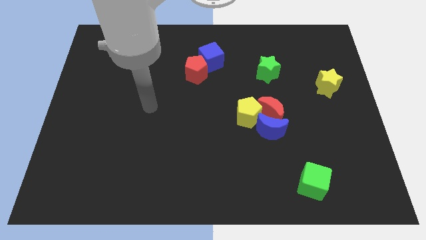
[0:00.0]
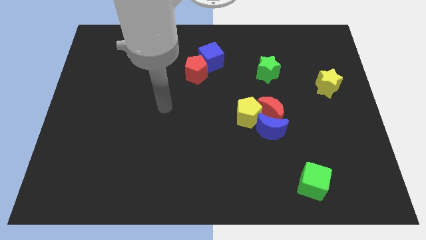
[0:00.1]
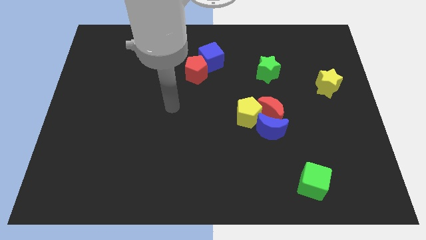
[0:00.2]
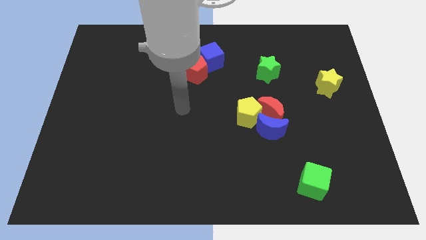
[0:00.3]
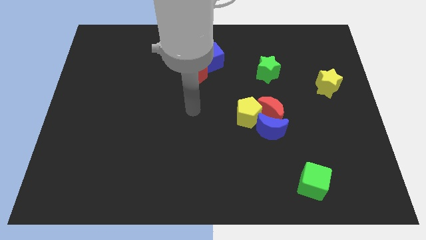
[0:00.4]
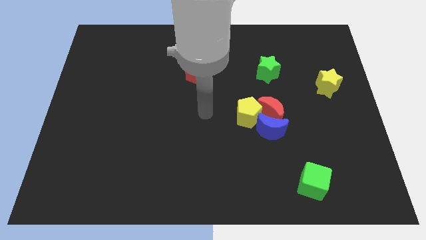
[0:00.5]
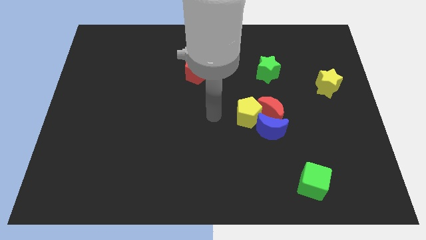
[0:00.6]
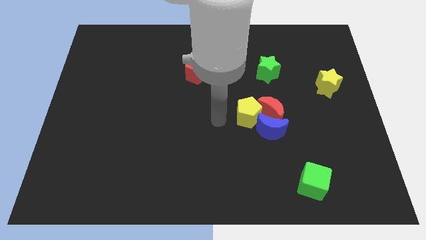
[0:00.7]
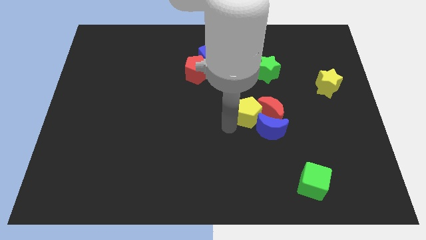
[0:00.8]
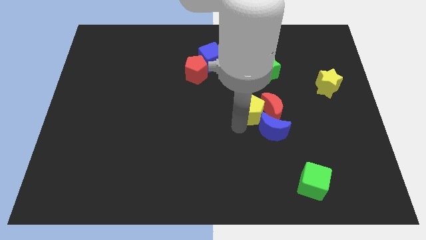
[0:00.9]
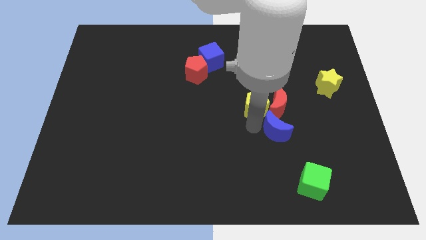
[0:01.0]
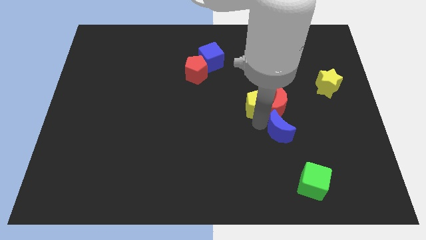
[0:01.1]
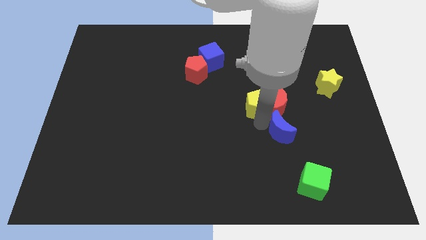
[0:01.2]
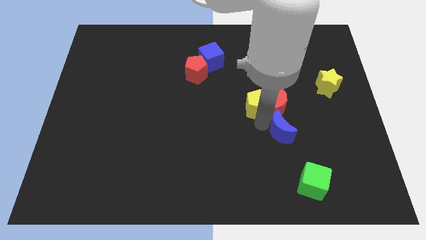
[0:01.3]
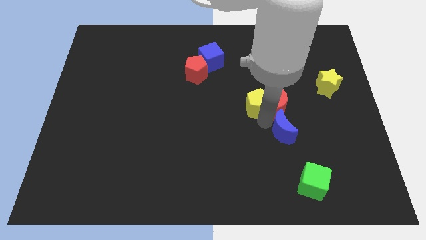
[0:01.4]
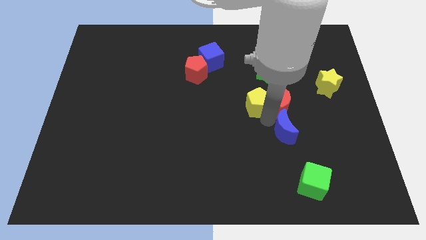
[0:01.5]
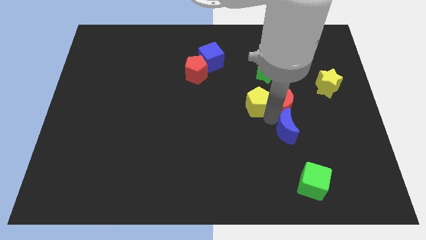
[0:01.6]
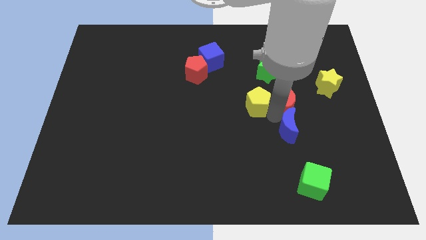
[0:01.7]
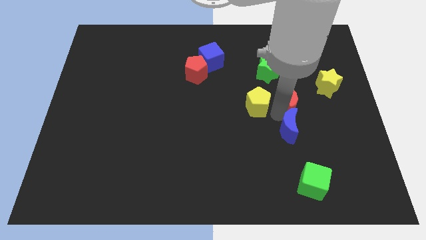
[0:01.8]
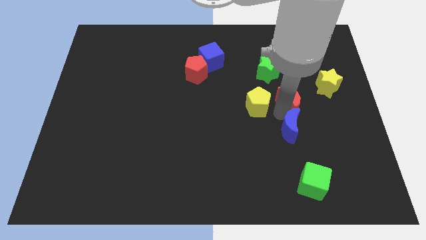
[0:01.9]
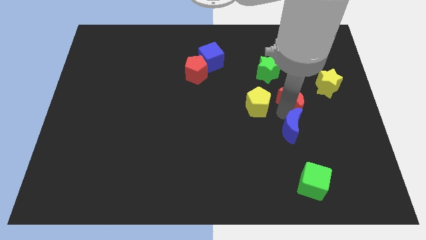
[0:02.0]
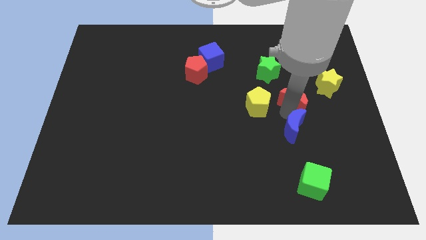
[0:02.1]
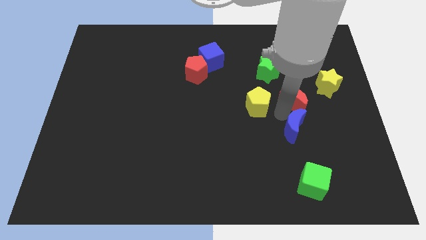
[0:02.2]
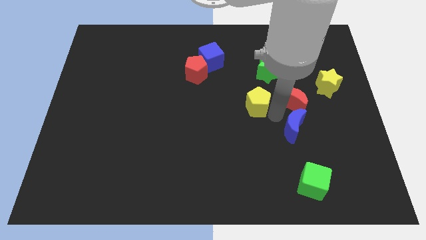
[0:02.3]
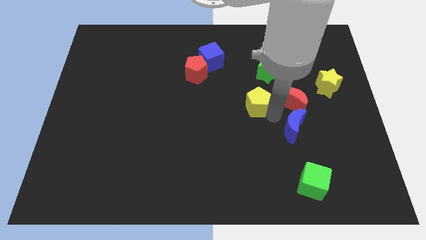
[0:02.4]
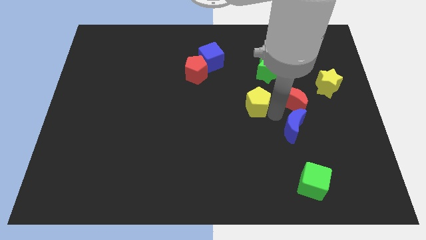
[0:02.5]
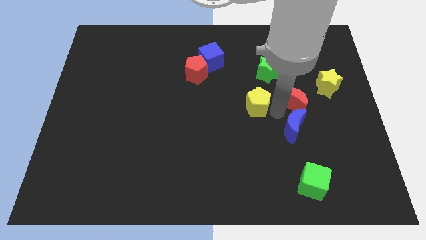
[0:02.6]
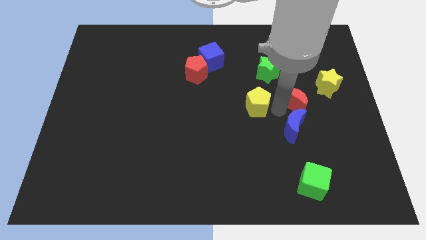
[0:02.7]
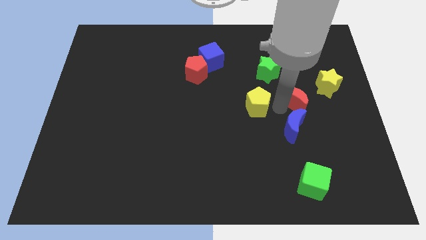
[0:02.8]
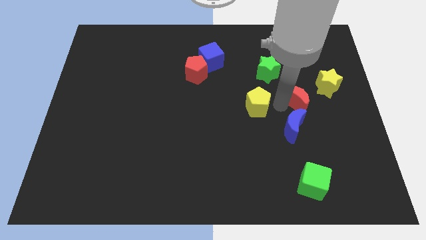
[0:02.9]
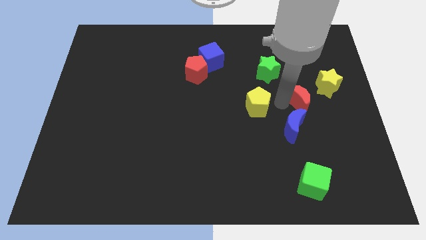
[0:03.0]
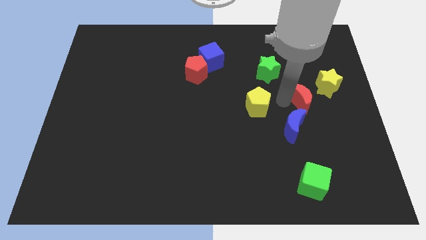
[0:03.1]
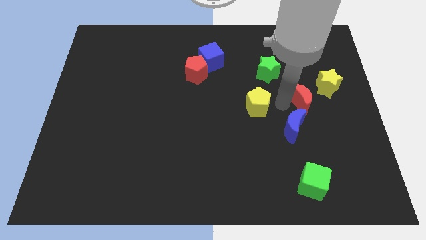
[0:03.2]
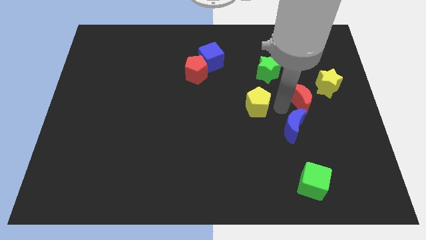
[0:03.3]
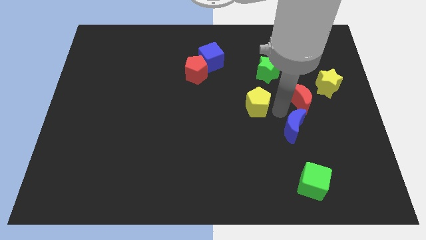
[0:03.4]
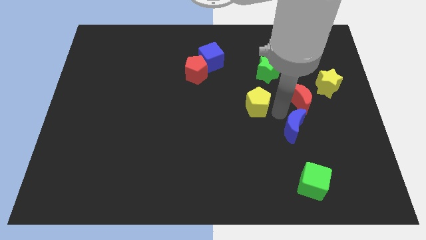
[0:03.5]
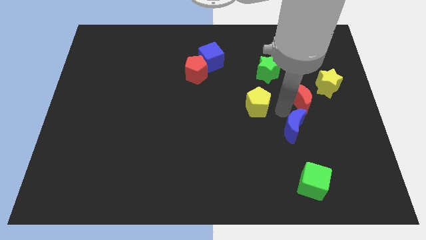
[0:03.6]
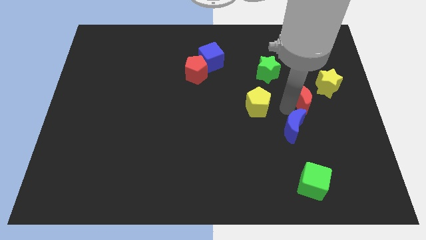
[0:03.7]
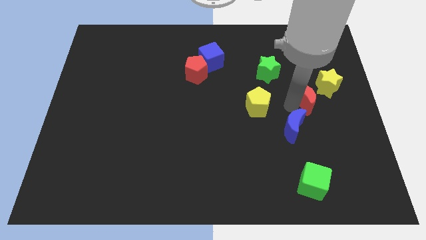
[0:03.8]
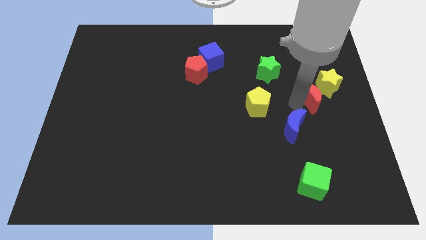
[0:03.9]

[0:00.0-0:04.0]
separate the red moon from the blue moon and yellow pentagon

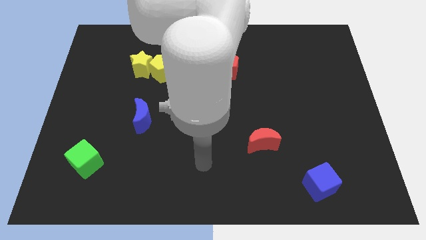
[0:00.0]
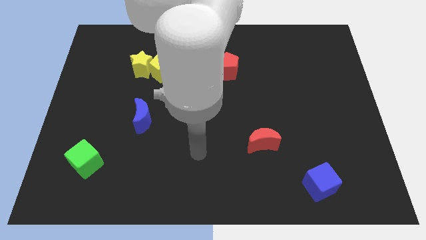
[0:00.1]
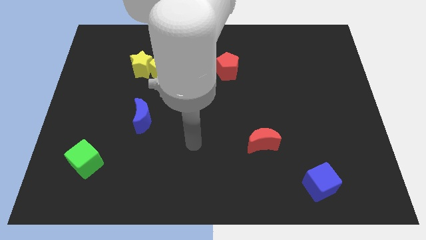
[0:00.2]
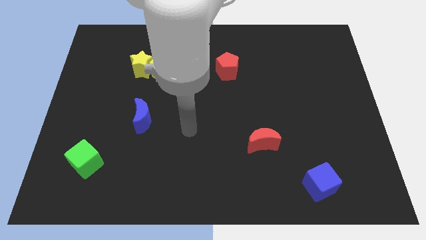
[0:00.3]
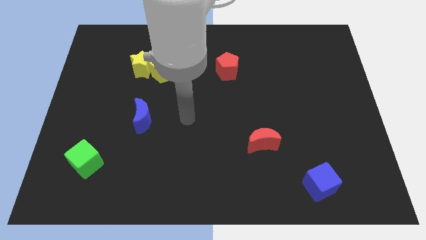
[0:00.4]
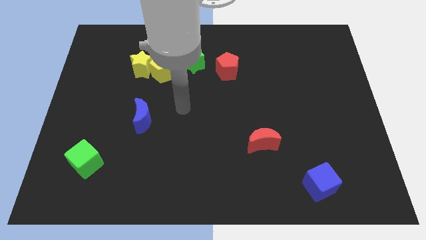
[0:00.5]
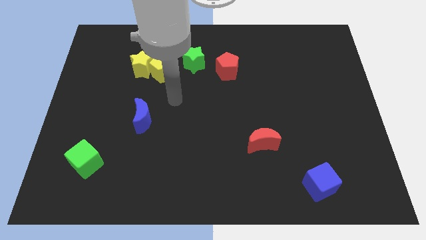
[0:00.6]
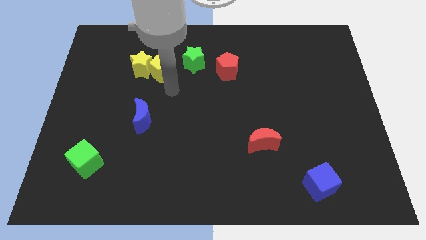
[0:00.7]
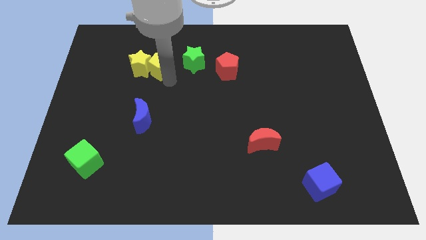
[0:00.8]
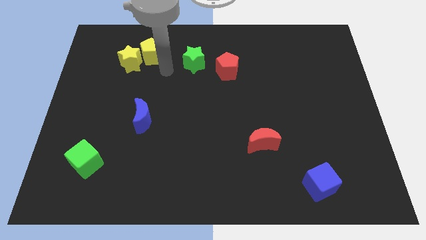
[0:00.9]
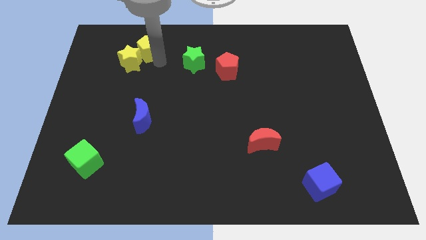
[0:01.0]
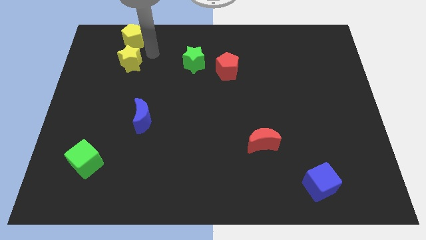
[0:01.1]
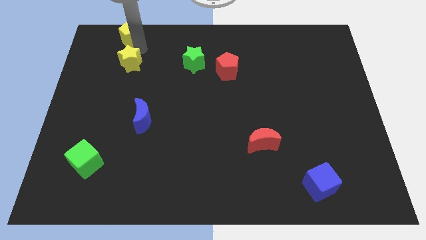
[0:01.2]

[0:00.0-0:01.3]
move the yellow star away from the yellow pentagon

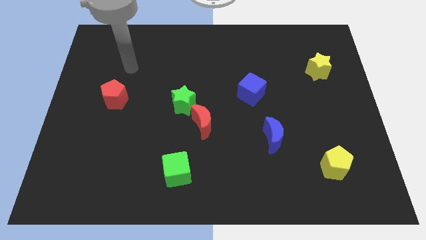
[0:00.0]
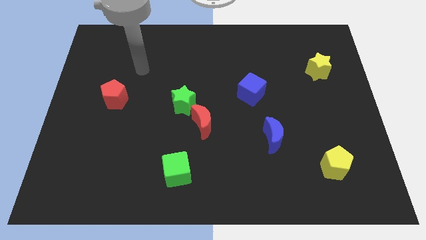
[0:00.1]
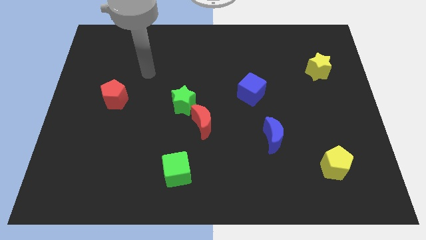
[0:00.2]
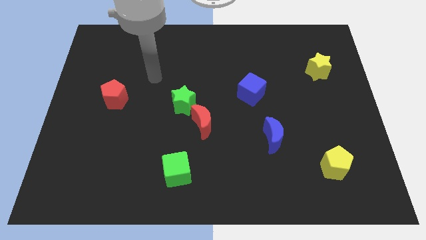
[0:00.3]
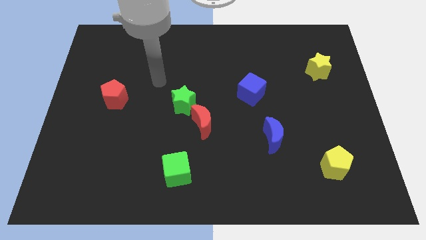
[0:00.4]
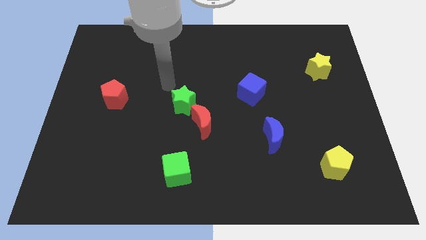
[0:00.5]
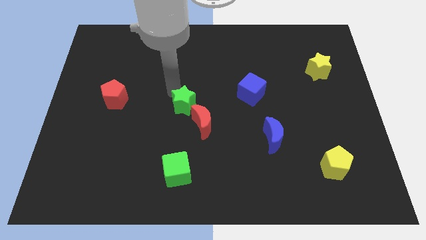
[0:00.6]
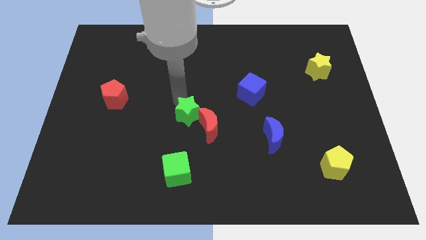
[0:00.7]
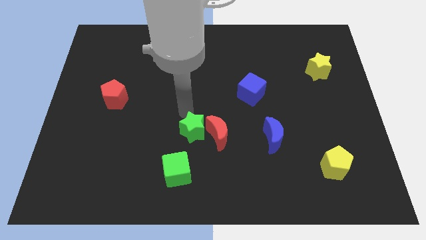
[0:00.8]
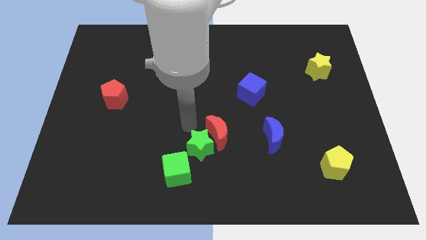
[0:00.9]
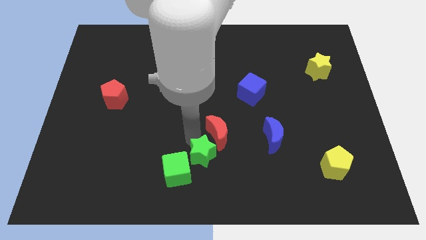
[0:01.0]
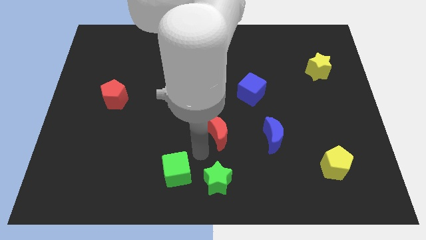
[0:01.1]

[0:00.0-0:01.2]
pull the red moon apart from the green star

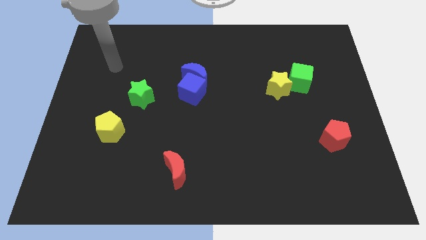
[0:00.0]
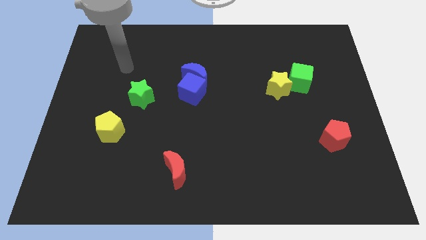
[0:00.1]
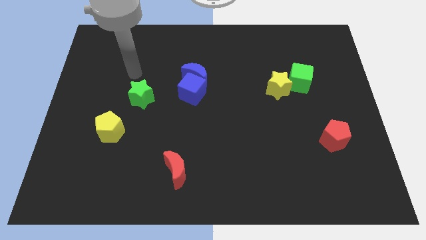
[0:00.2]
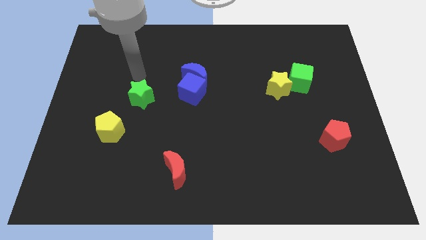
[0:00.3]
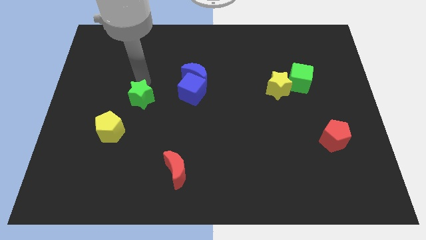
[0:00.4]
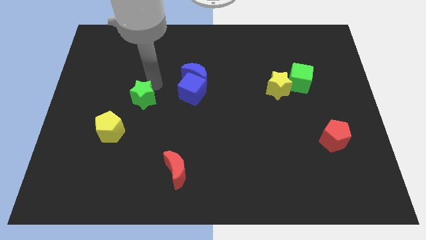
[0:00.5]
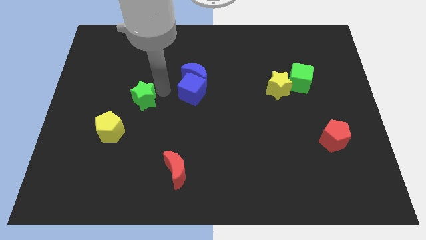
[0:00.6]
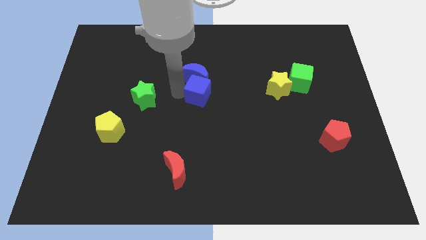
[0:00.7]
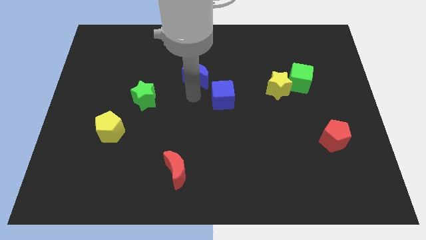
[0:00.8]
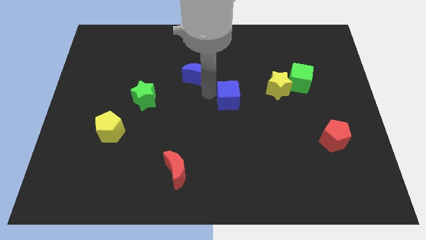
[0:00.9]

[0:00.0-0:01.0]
move the blue moon away from the blue cube

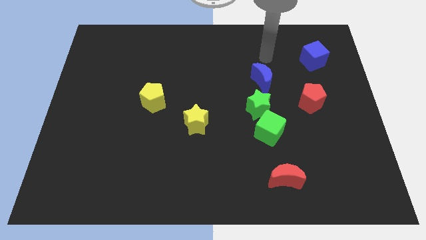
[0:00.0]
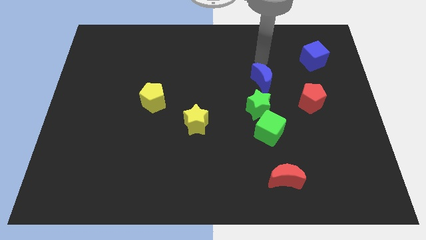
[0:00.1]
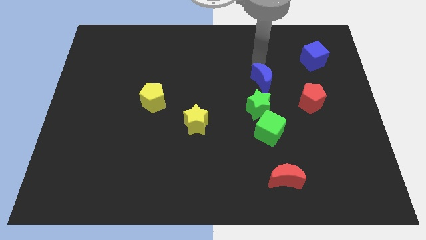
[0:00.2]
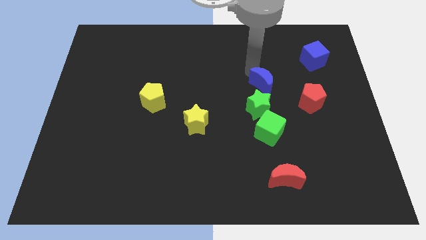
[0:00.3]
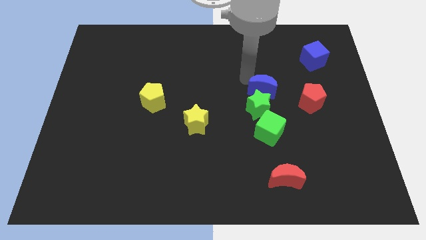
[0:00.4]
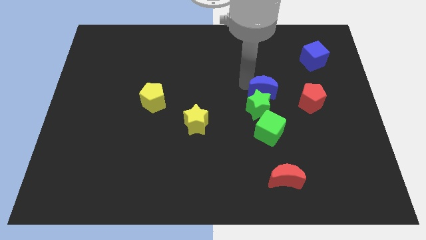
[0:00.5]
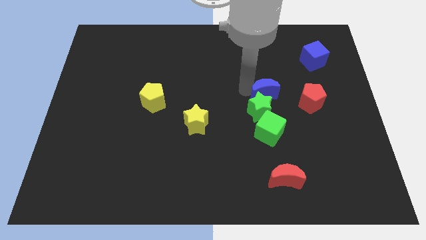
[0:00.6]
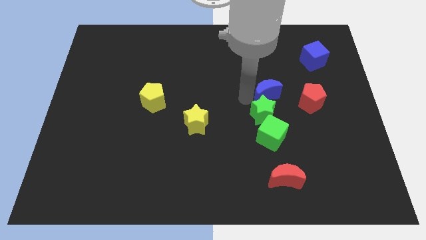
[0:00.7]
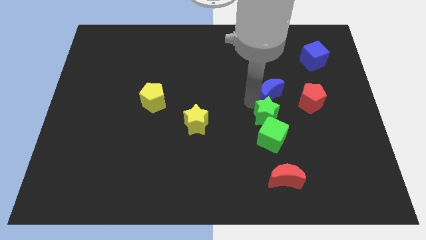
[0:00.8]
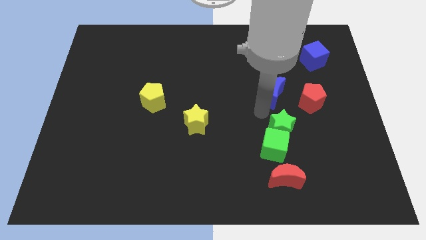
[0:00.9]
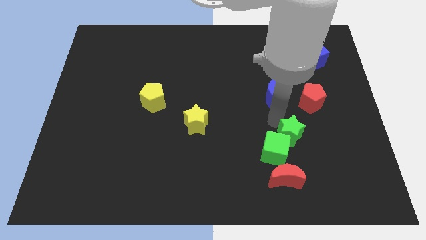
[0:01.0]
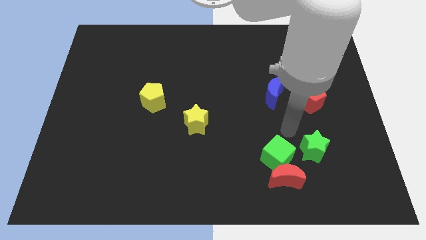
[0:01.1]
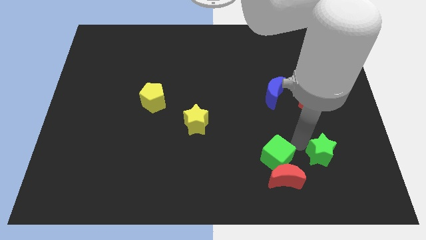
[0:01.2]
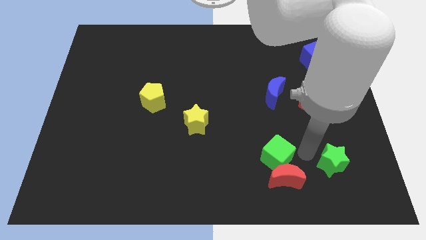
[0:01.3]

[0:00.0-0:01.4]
move the green cube away from the green star

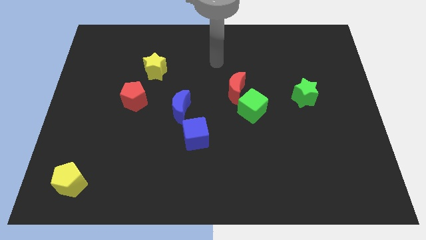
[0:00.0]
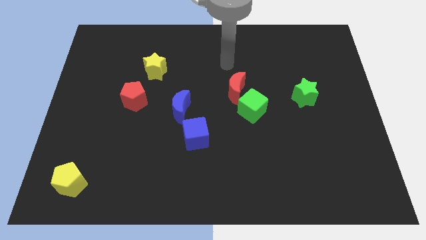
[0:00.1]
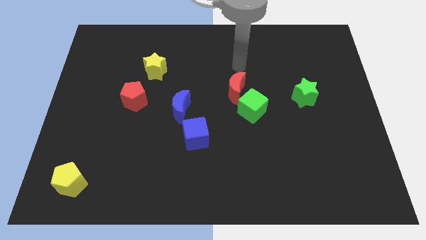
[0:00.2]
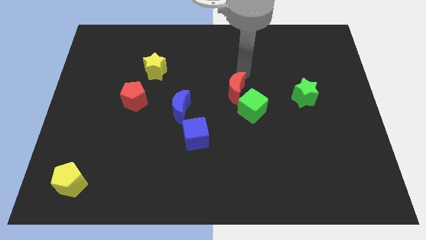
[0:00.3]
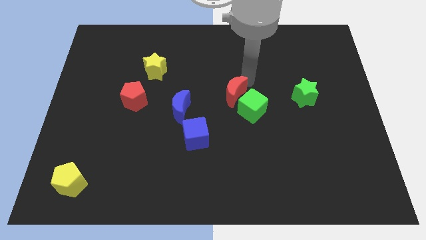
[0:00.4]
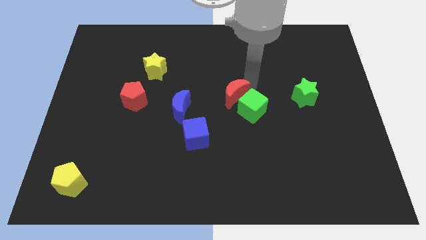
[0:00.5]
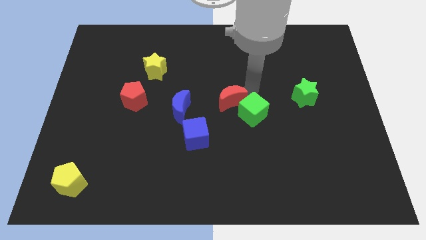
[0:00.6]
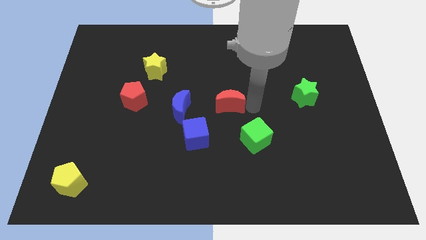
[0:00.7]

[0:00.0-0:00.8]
separate the red moon from the green cube
